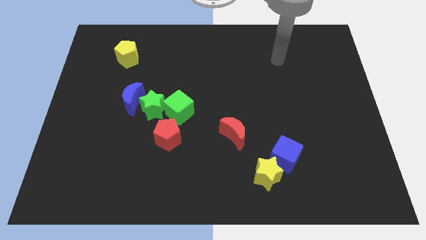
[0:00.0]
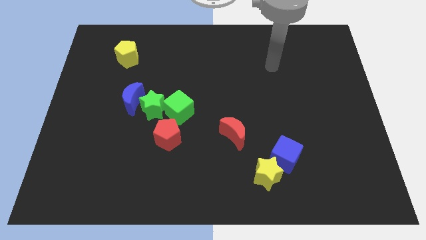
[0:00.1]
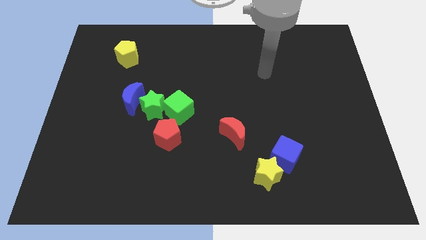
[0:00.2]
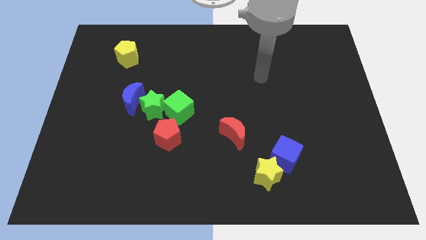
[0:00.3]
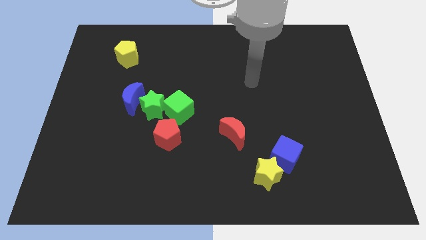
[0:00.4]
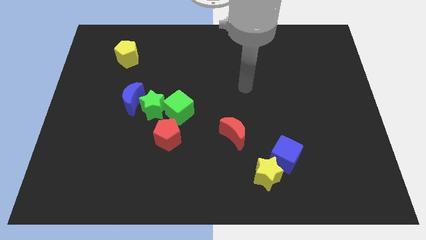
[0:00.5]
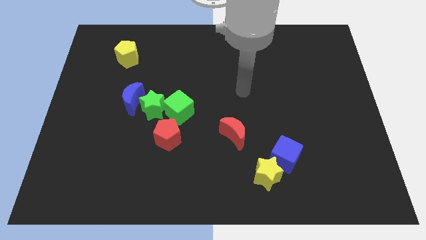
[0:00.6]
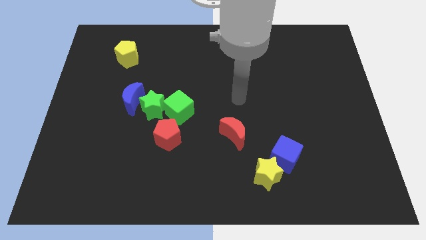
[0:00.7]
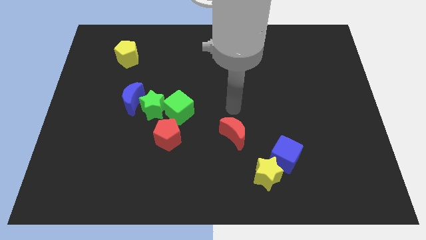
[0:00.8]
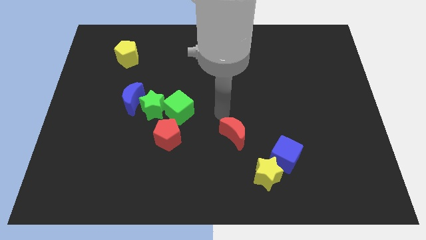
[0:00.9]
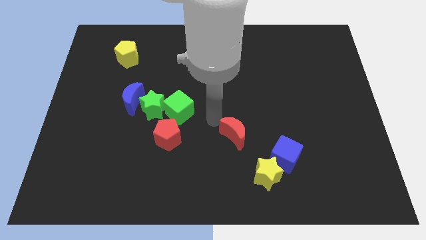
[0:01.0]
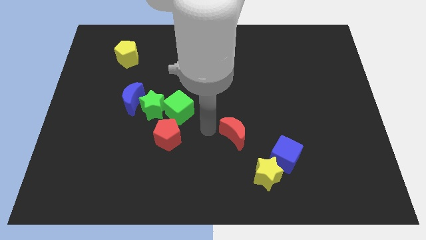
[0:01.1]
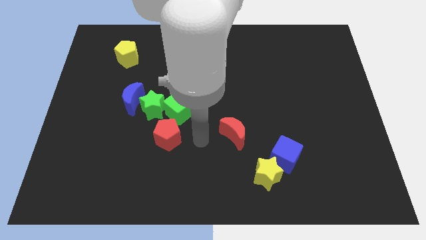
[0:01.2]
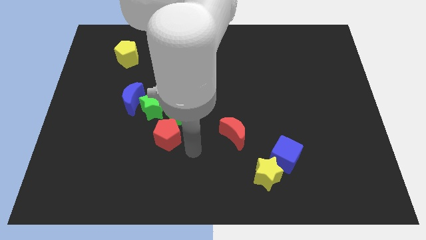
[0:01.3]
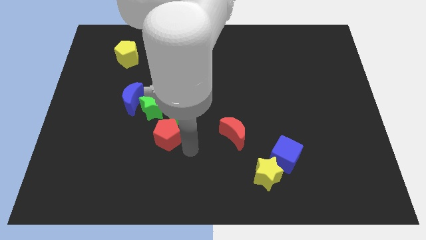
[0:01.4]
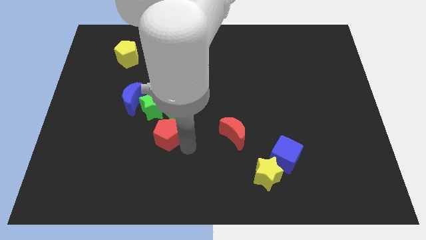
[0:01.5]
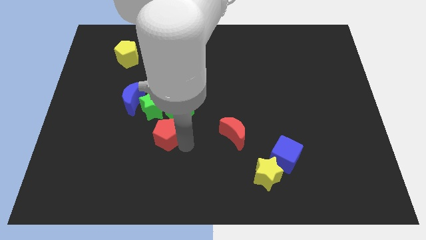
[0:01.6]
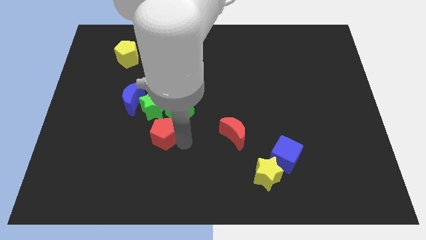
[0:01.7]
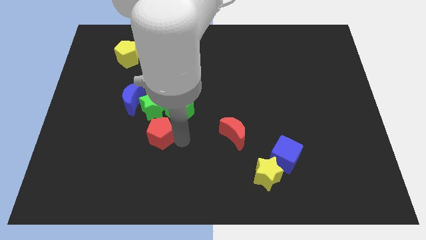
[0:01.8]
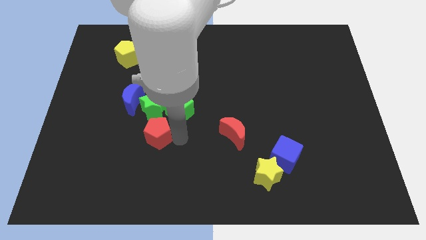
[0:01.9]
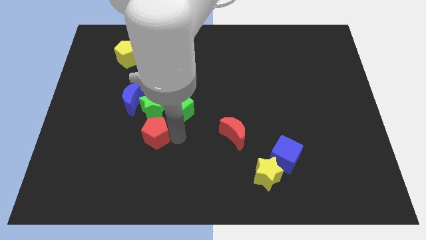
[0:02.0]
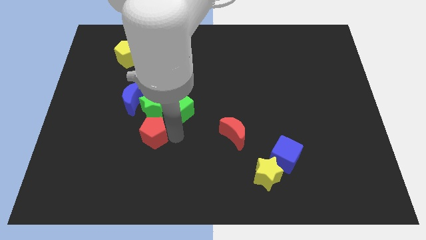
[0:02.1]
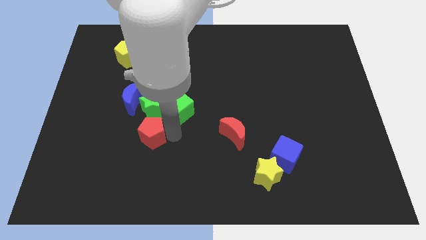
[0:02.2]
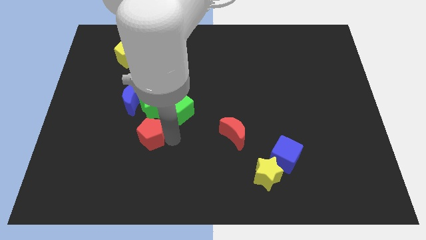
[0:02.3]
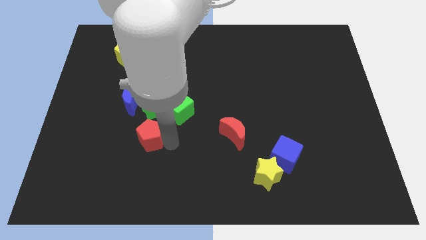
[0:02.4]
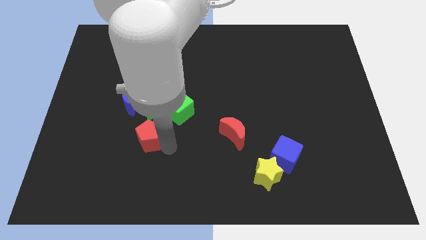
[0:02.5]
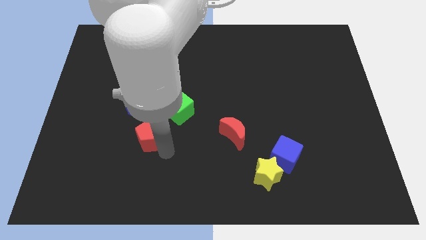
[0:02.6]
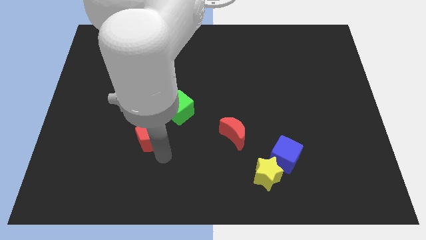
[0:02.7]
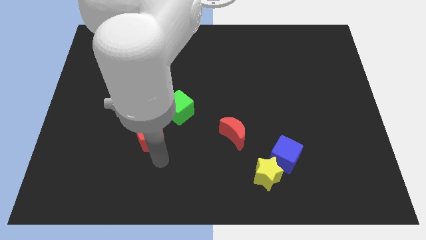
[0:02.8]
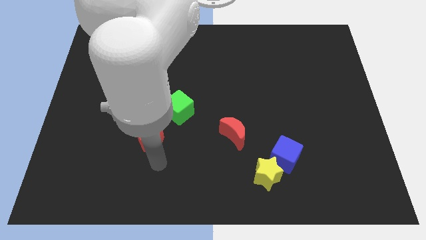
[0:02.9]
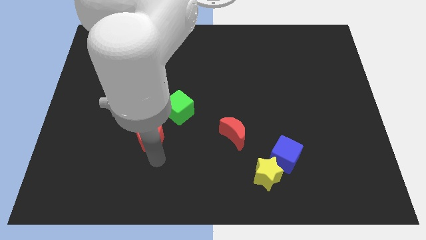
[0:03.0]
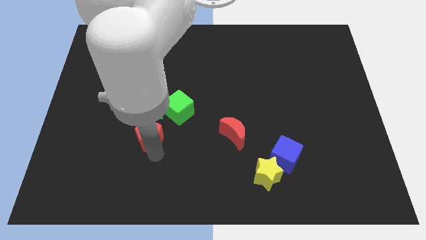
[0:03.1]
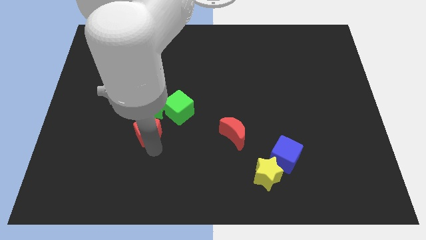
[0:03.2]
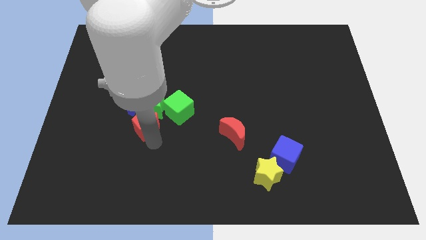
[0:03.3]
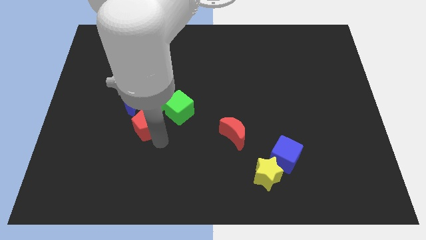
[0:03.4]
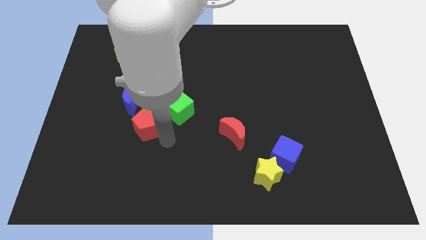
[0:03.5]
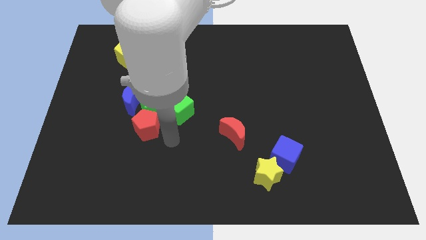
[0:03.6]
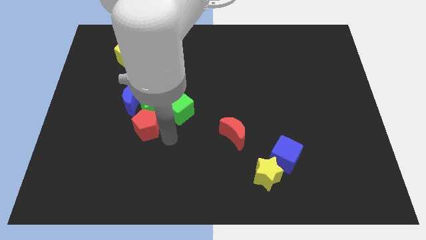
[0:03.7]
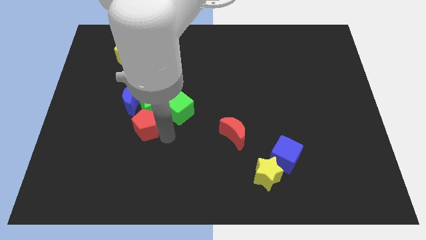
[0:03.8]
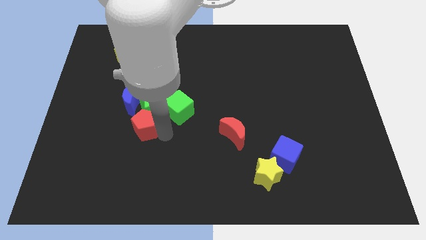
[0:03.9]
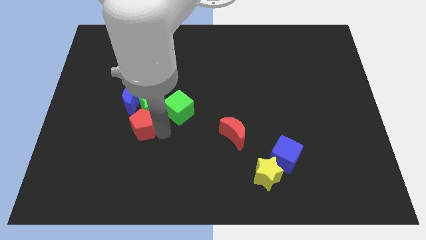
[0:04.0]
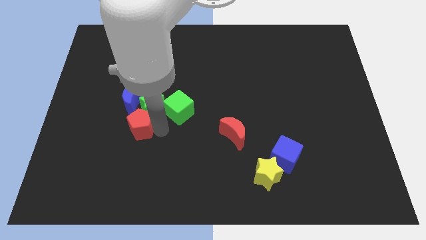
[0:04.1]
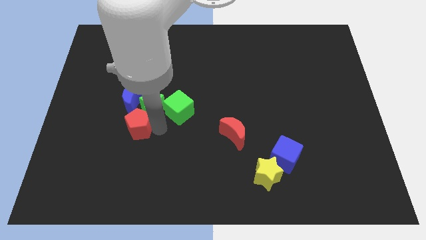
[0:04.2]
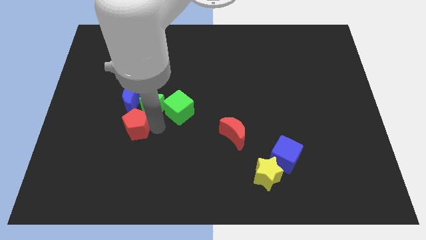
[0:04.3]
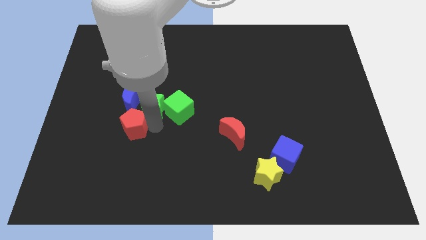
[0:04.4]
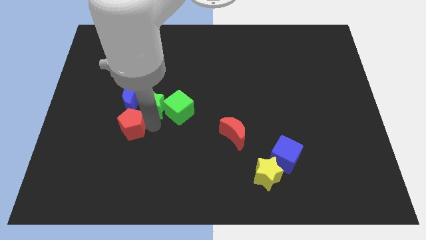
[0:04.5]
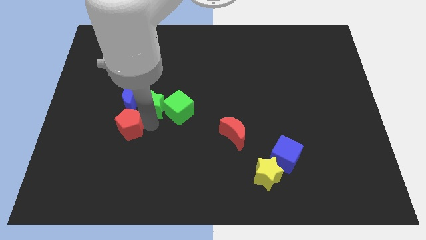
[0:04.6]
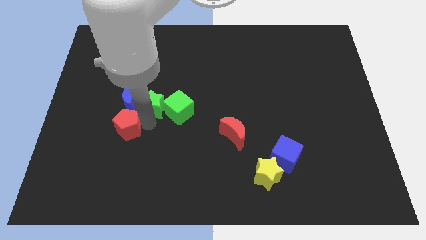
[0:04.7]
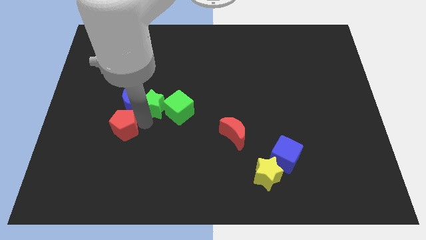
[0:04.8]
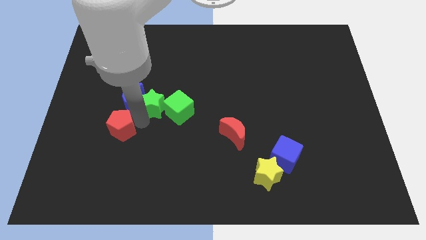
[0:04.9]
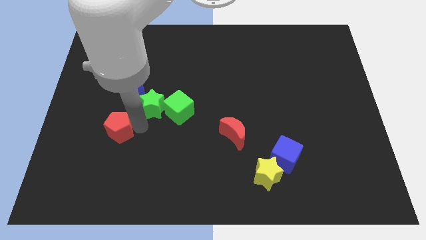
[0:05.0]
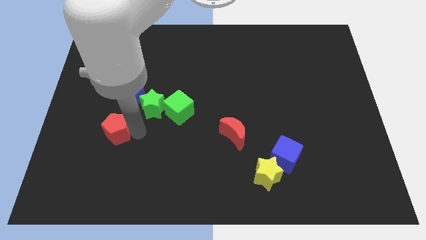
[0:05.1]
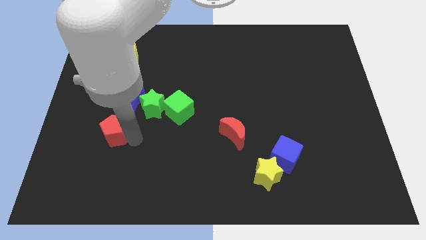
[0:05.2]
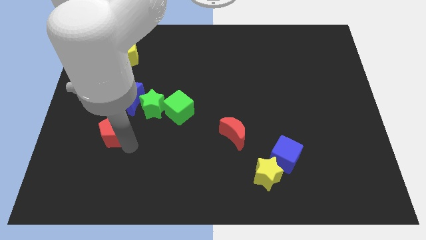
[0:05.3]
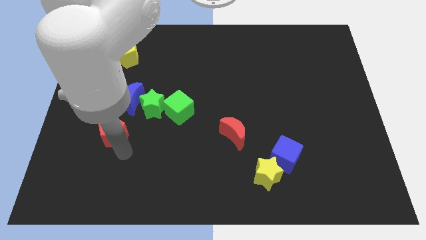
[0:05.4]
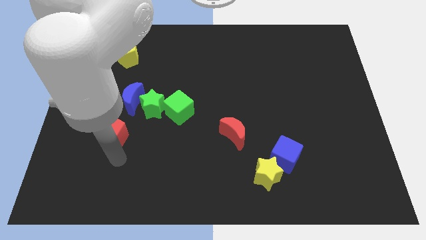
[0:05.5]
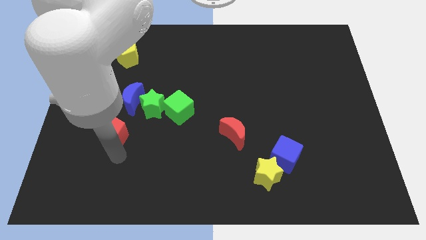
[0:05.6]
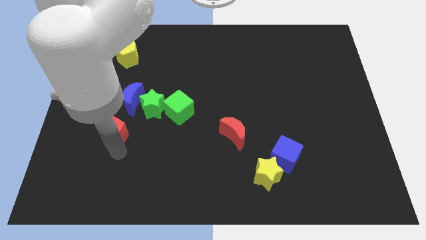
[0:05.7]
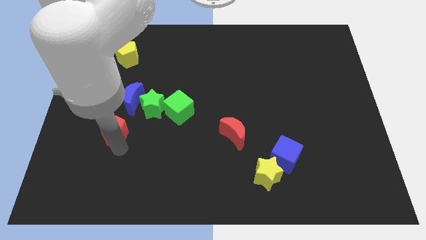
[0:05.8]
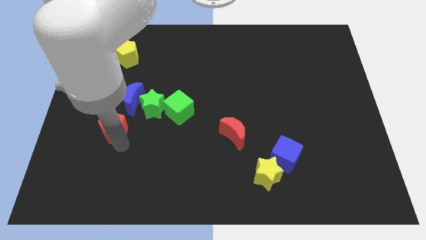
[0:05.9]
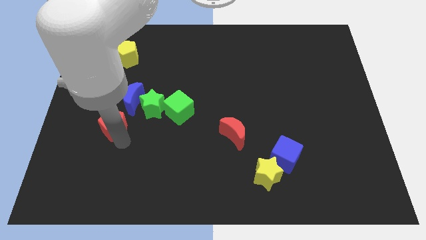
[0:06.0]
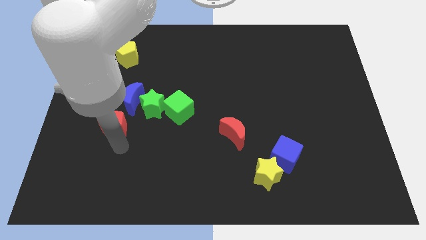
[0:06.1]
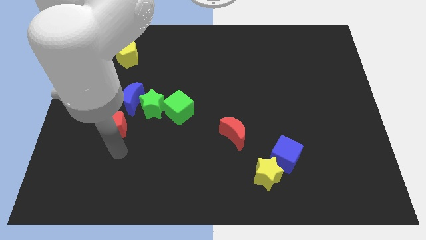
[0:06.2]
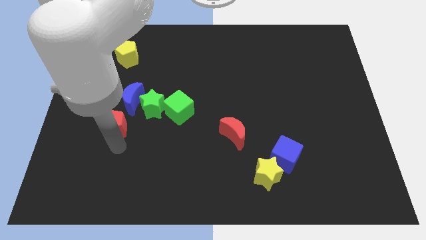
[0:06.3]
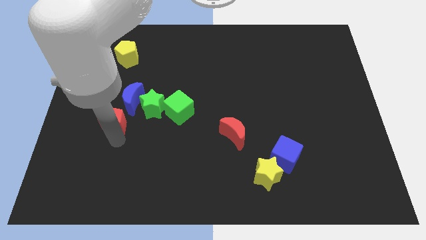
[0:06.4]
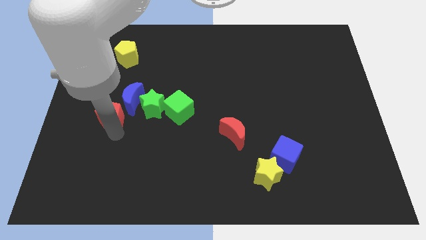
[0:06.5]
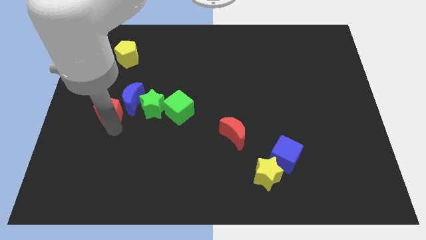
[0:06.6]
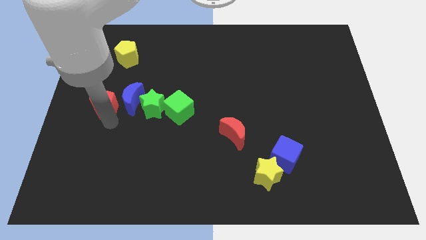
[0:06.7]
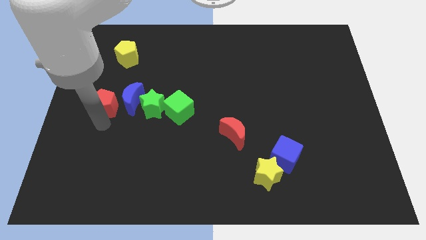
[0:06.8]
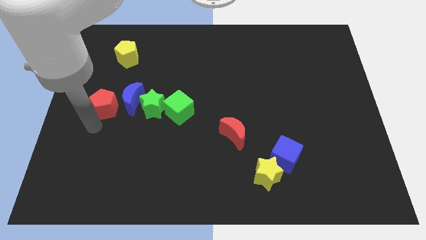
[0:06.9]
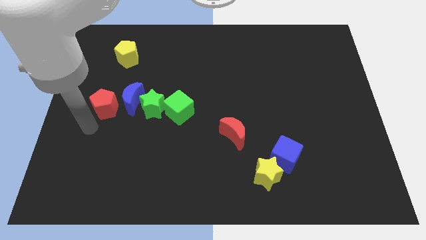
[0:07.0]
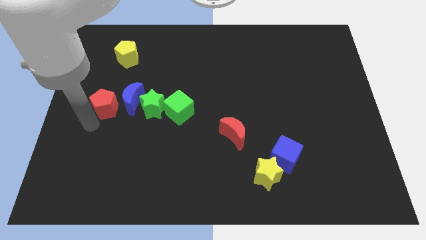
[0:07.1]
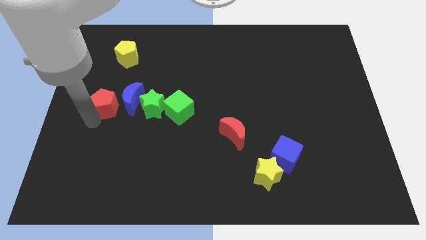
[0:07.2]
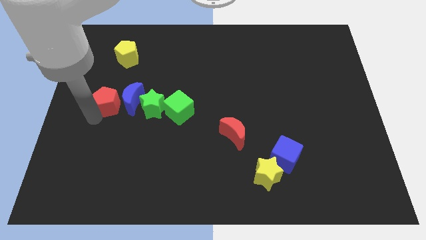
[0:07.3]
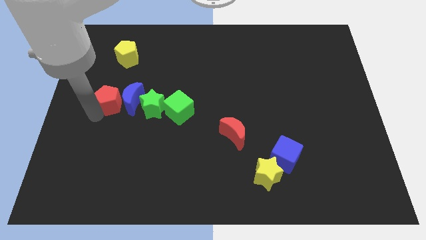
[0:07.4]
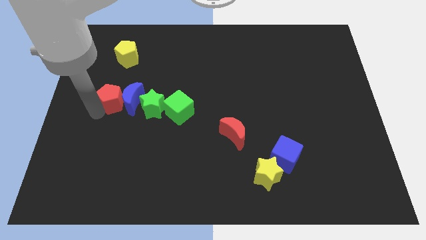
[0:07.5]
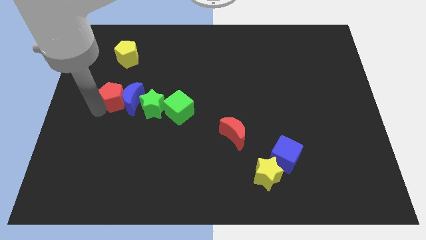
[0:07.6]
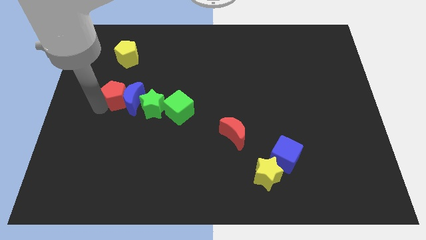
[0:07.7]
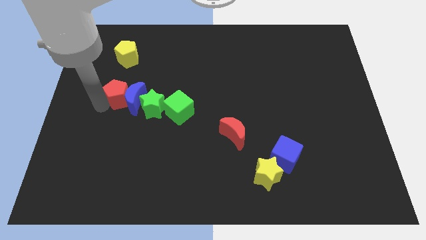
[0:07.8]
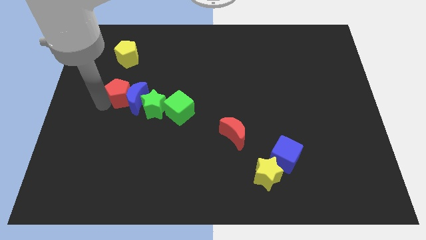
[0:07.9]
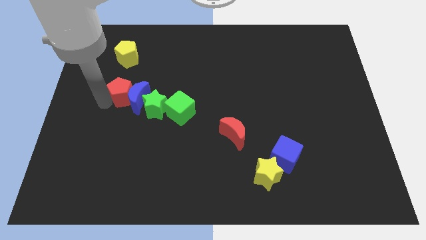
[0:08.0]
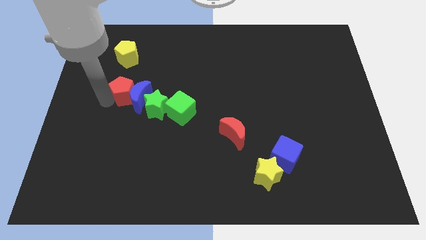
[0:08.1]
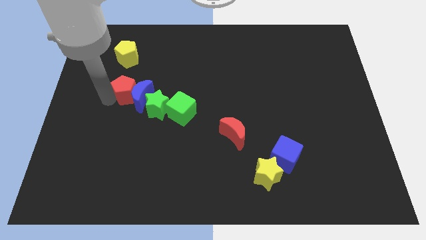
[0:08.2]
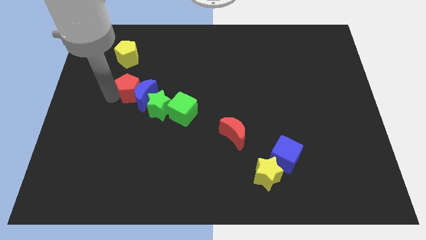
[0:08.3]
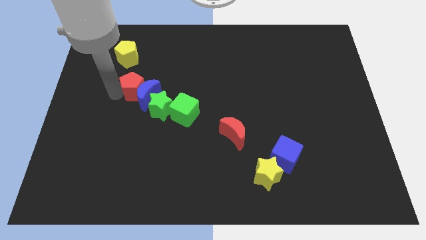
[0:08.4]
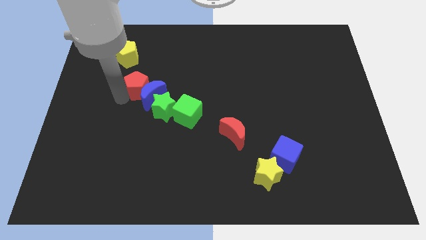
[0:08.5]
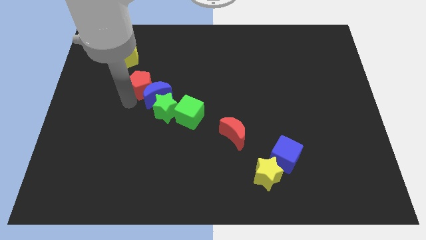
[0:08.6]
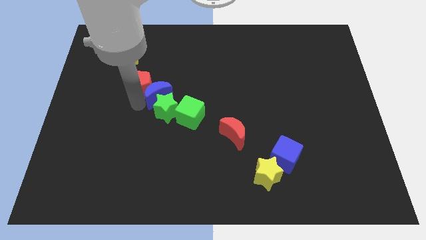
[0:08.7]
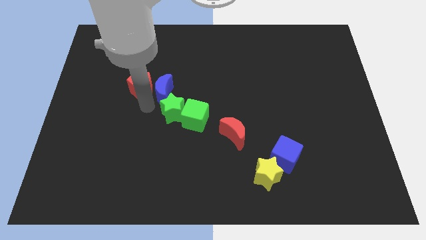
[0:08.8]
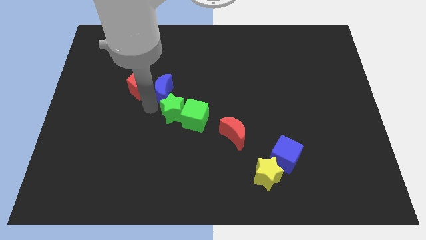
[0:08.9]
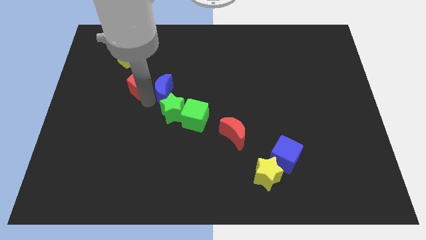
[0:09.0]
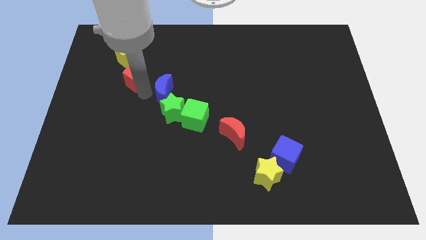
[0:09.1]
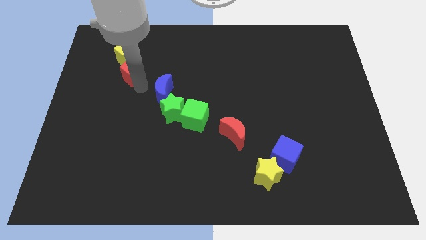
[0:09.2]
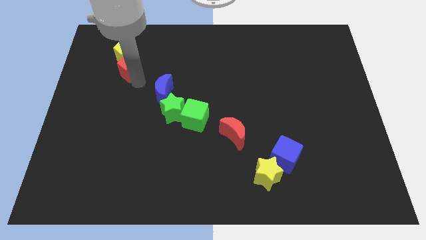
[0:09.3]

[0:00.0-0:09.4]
move the red pentagon to the yellow pentagon
